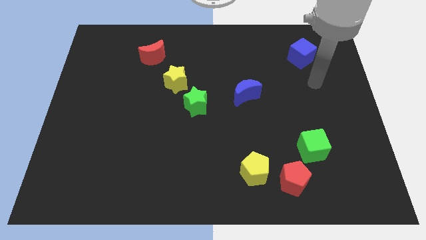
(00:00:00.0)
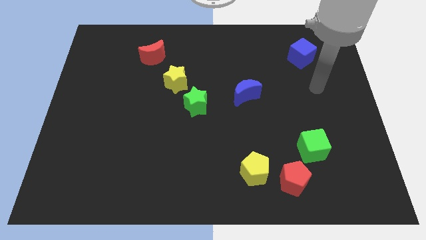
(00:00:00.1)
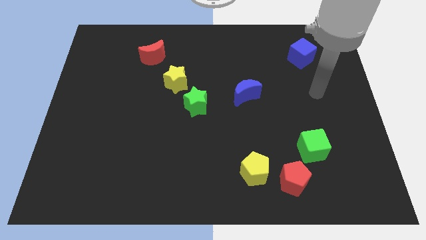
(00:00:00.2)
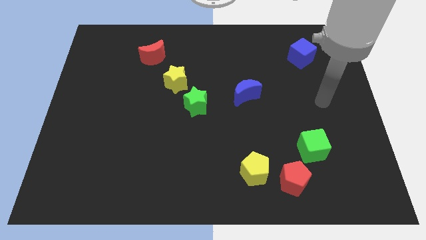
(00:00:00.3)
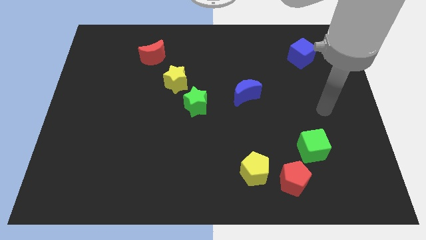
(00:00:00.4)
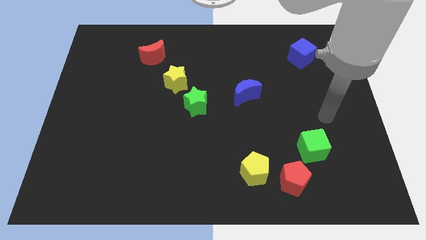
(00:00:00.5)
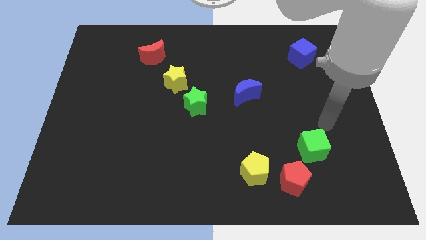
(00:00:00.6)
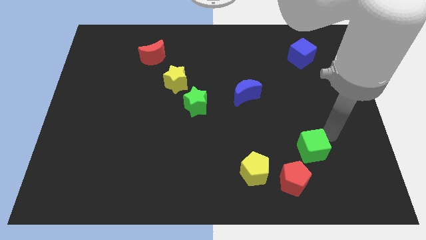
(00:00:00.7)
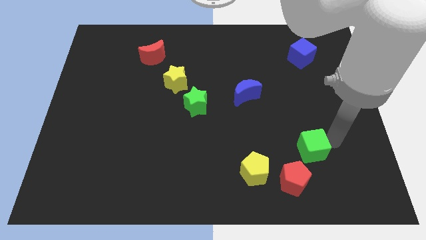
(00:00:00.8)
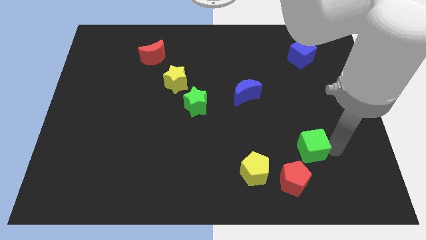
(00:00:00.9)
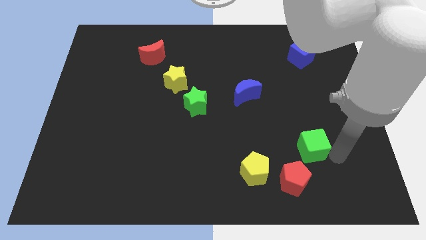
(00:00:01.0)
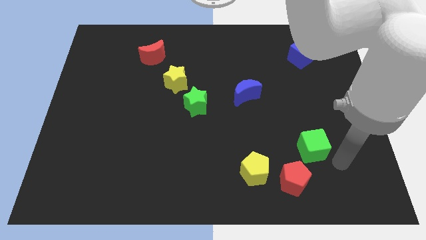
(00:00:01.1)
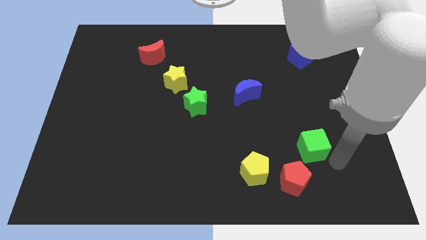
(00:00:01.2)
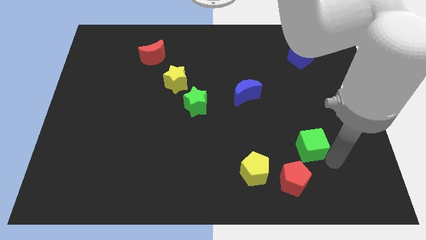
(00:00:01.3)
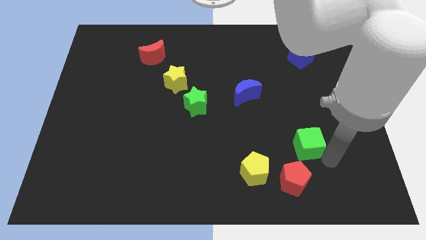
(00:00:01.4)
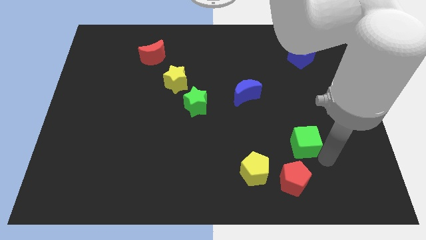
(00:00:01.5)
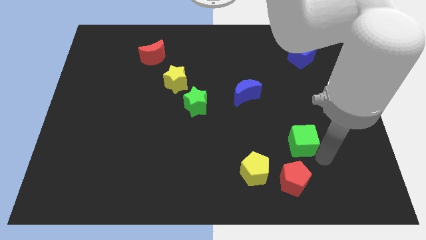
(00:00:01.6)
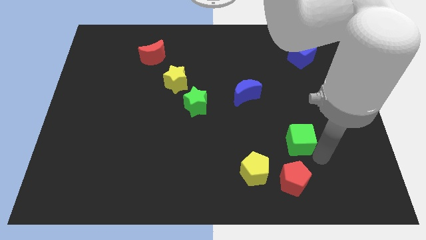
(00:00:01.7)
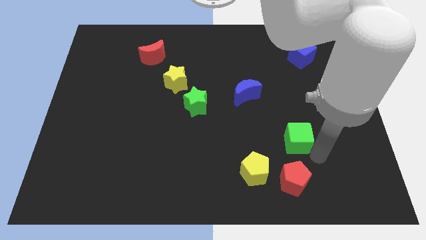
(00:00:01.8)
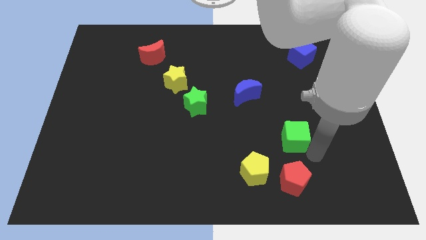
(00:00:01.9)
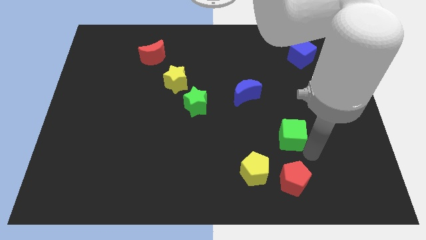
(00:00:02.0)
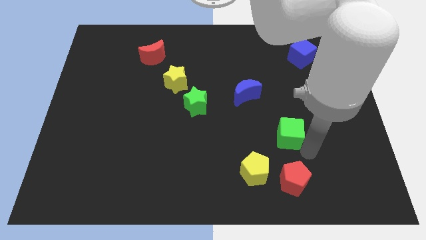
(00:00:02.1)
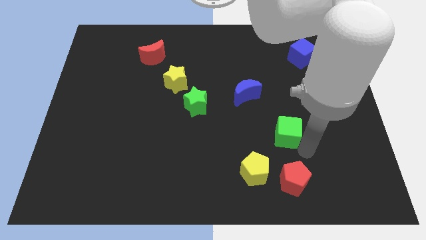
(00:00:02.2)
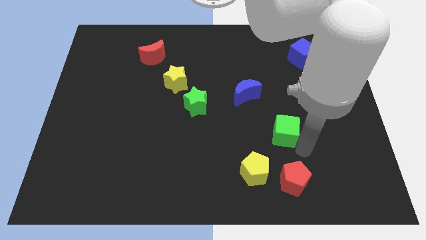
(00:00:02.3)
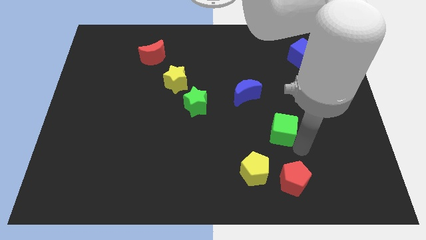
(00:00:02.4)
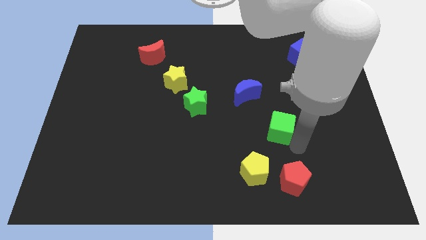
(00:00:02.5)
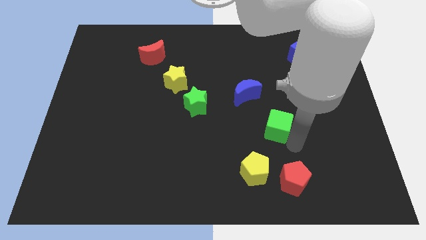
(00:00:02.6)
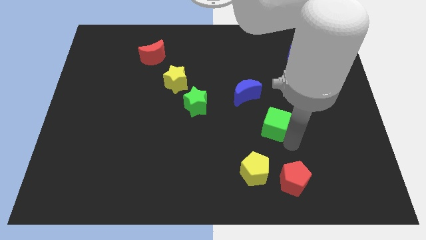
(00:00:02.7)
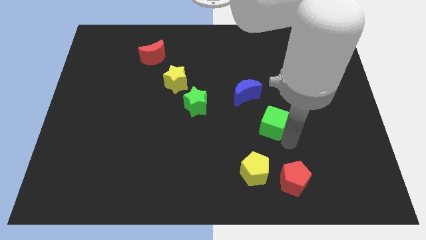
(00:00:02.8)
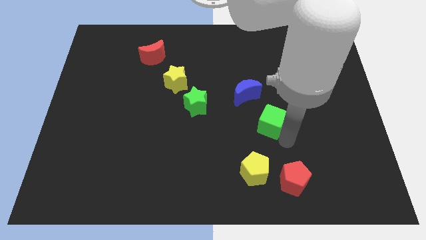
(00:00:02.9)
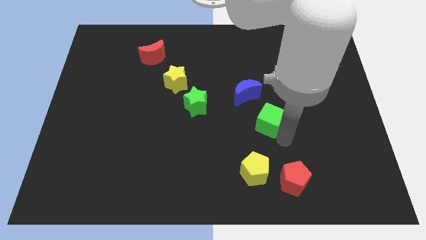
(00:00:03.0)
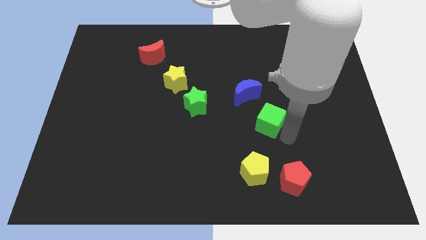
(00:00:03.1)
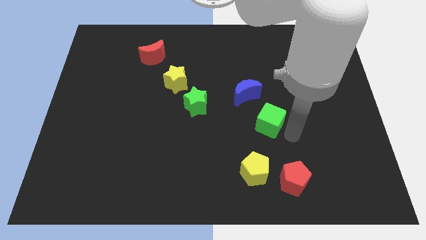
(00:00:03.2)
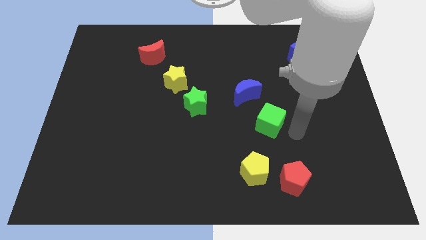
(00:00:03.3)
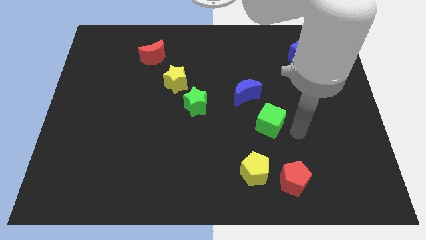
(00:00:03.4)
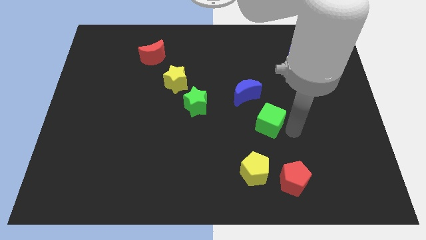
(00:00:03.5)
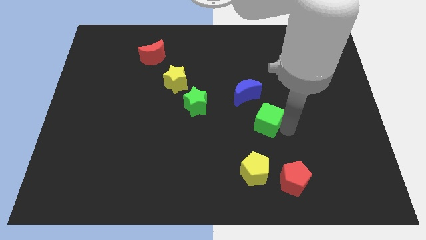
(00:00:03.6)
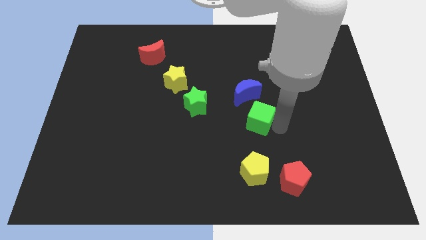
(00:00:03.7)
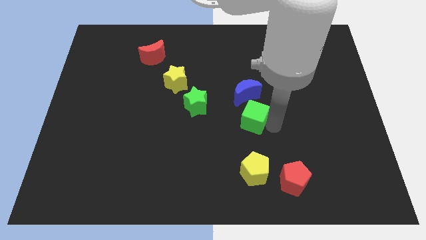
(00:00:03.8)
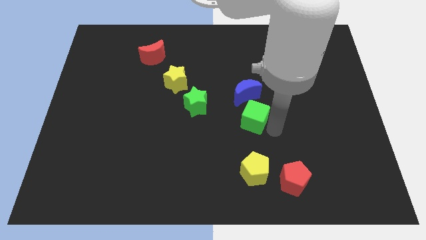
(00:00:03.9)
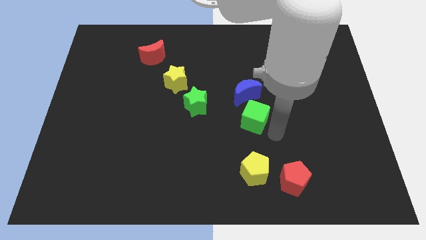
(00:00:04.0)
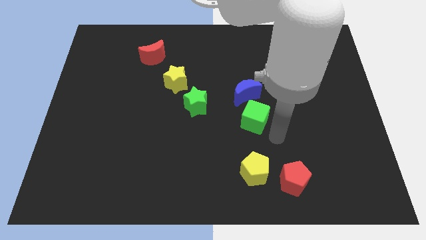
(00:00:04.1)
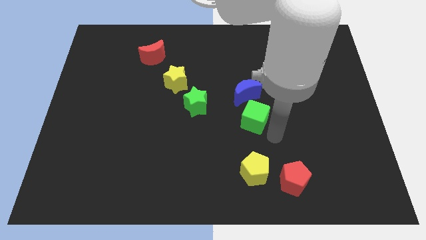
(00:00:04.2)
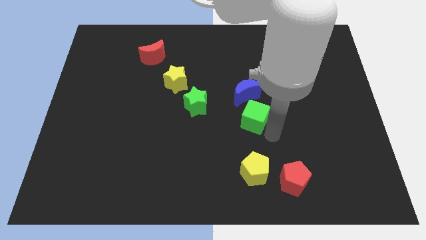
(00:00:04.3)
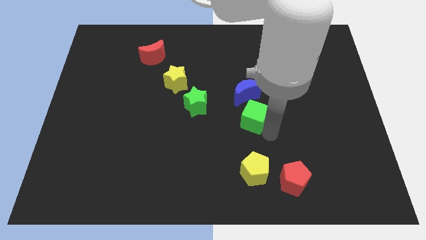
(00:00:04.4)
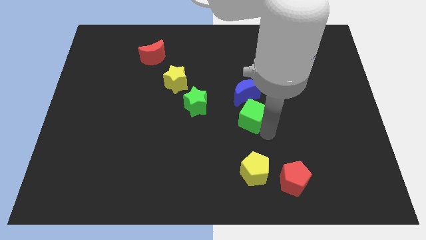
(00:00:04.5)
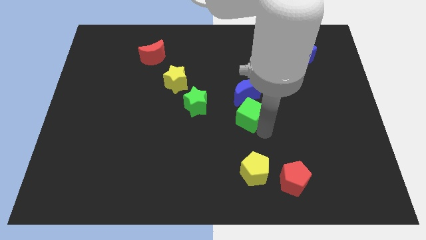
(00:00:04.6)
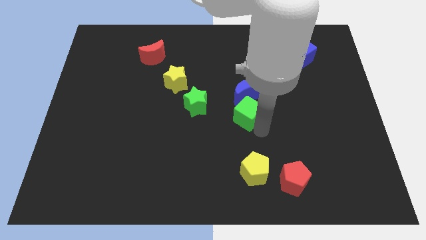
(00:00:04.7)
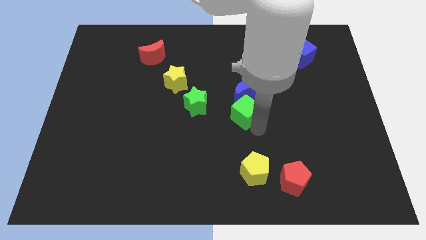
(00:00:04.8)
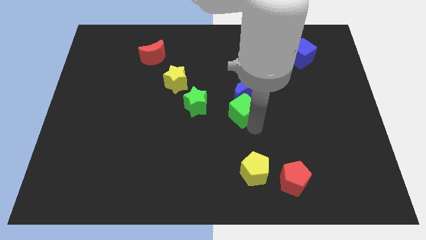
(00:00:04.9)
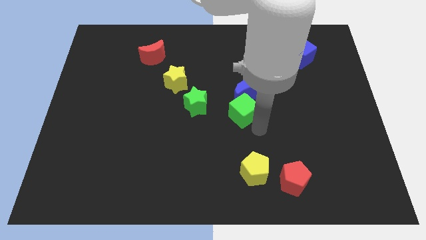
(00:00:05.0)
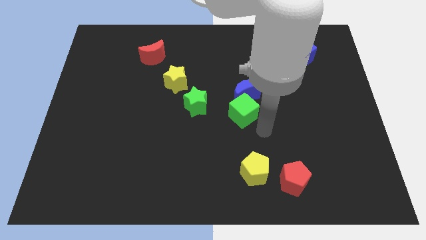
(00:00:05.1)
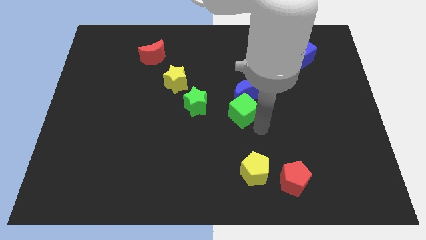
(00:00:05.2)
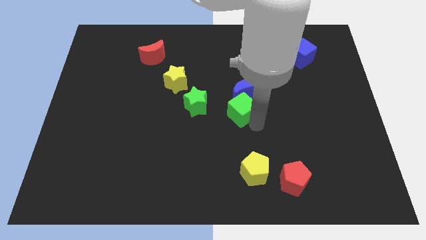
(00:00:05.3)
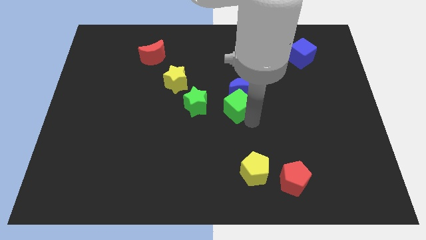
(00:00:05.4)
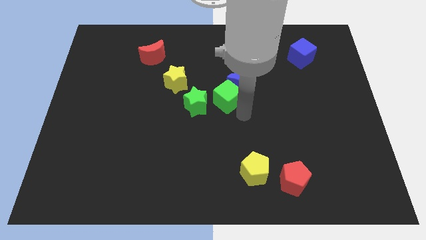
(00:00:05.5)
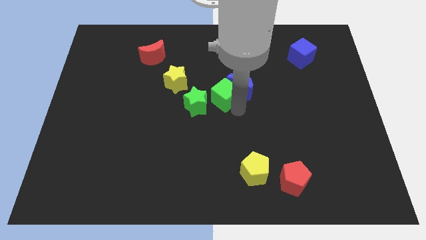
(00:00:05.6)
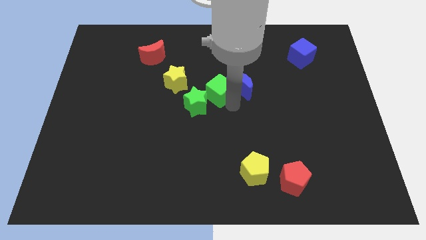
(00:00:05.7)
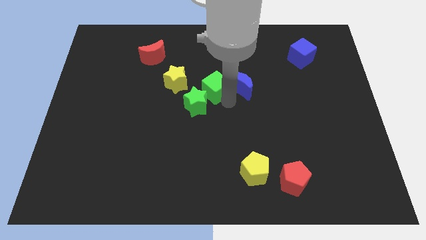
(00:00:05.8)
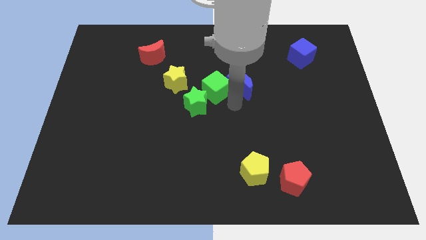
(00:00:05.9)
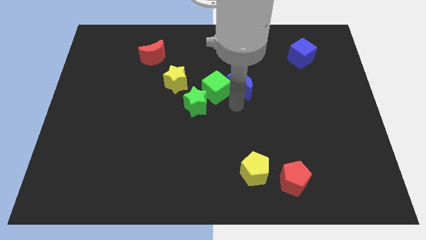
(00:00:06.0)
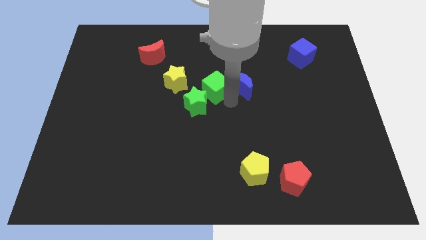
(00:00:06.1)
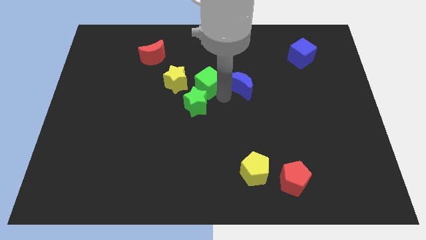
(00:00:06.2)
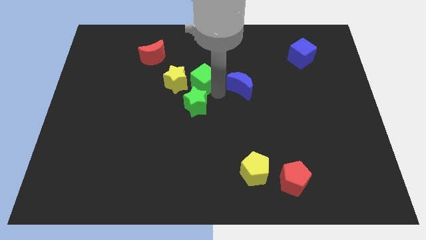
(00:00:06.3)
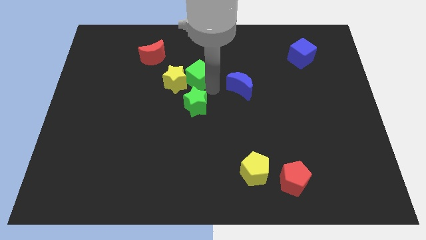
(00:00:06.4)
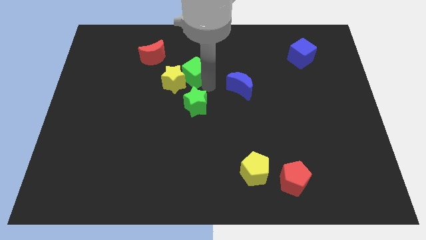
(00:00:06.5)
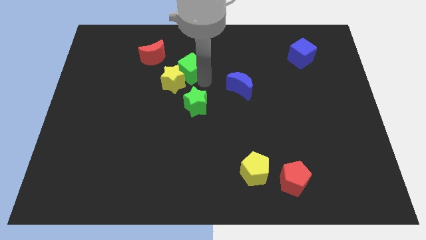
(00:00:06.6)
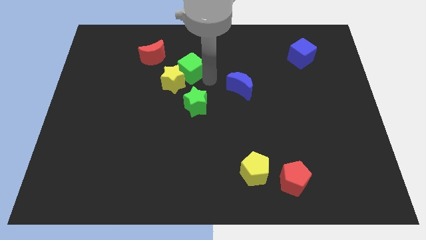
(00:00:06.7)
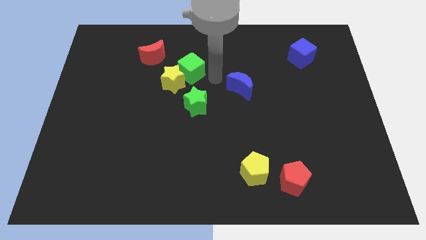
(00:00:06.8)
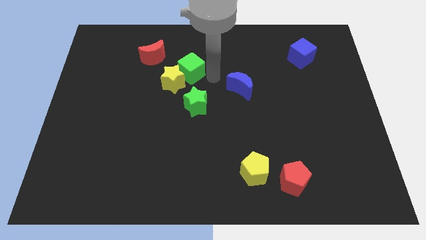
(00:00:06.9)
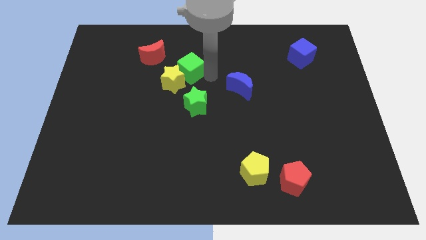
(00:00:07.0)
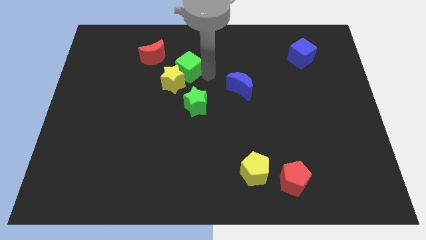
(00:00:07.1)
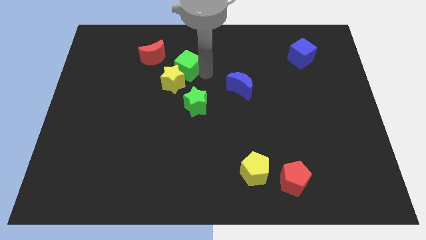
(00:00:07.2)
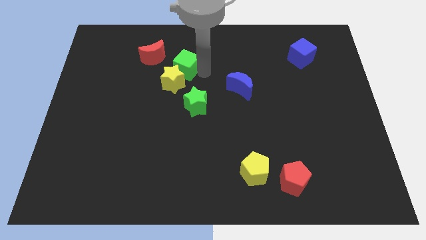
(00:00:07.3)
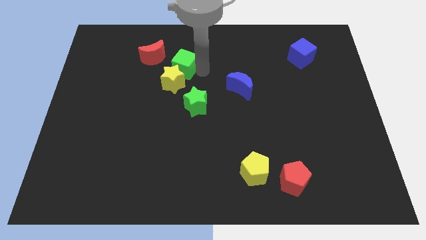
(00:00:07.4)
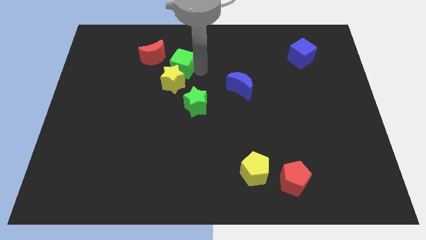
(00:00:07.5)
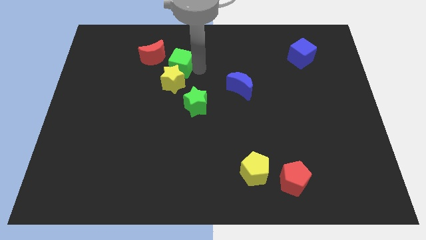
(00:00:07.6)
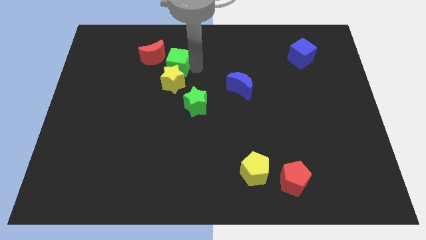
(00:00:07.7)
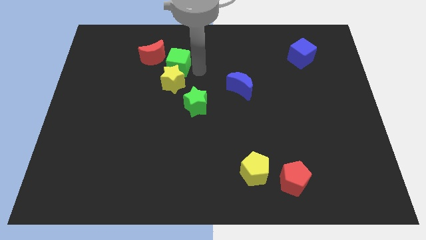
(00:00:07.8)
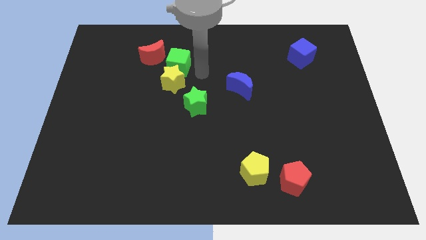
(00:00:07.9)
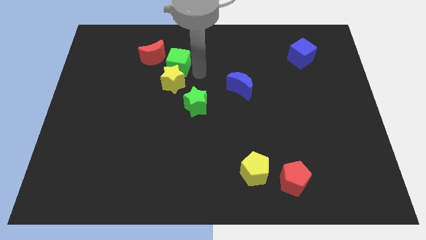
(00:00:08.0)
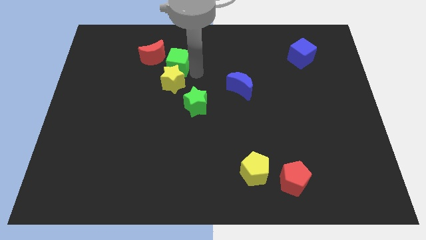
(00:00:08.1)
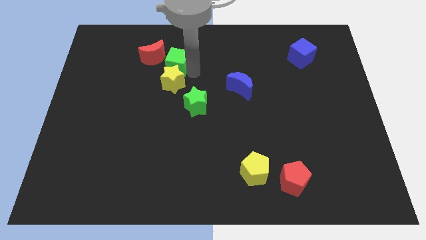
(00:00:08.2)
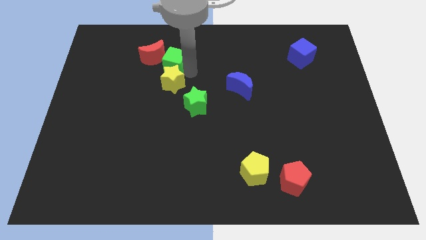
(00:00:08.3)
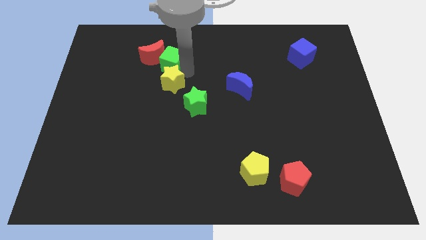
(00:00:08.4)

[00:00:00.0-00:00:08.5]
slide the green cube close to the red moon
